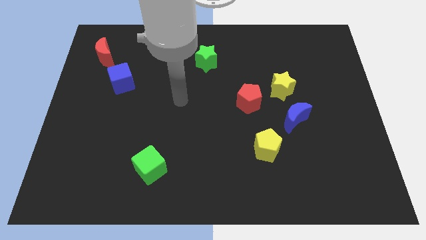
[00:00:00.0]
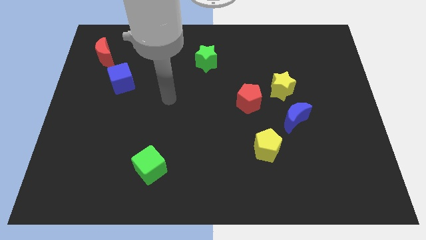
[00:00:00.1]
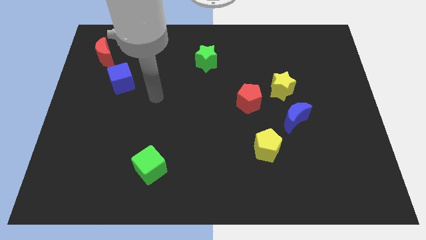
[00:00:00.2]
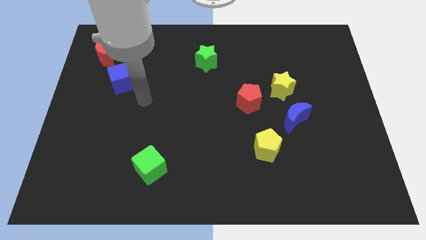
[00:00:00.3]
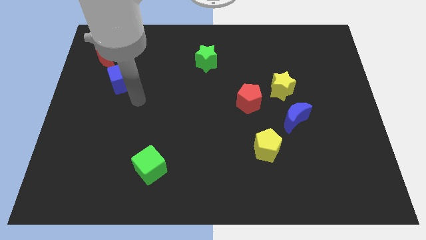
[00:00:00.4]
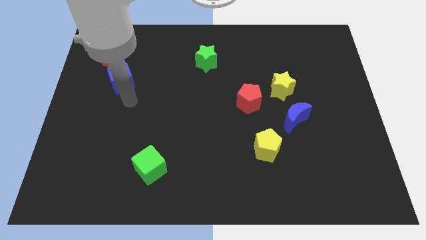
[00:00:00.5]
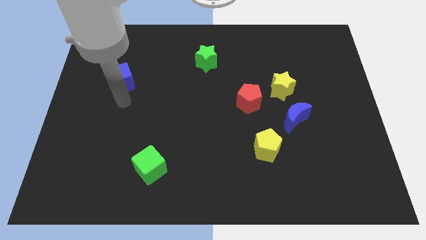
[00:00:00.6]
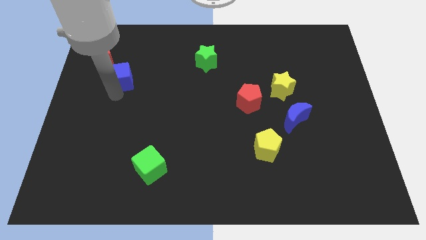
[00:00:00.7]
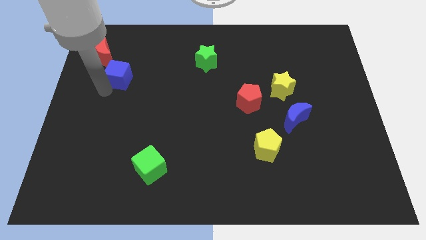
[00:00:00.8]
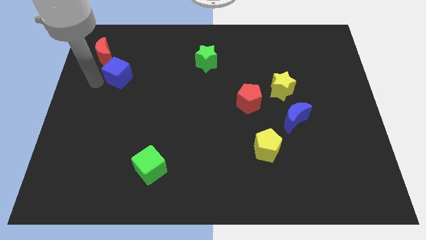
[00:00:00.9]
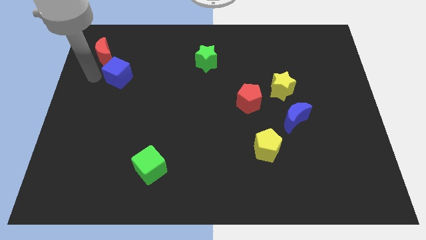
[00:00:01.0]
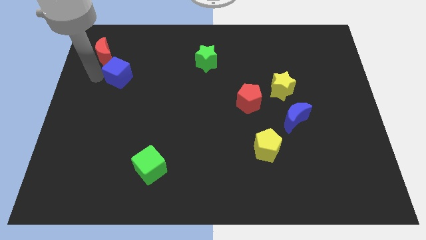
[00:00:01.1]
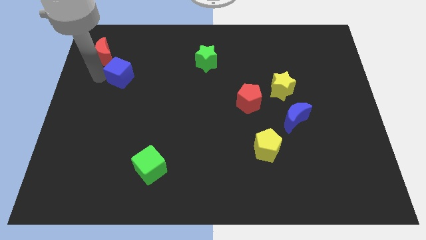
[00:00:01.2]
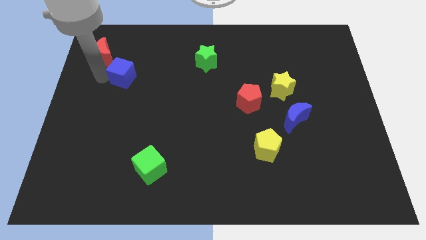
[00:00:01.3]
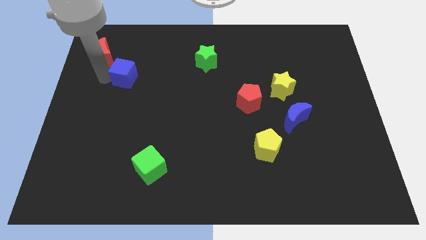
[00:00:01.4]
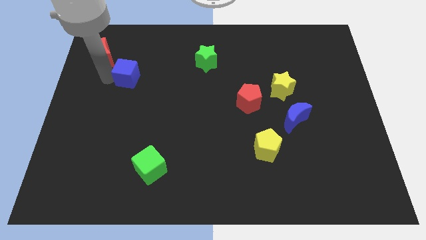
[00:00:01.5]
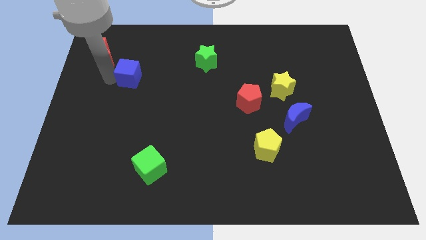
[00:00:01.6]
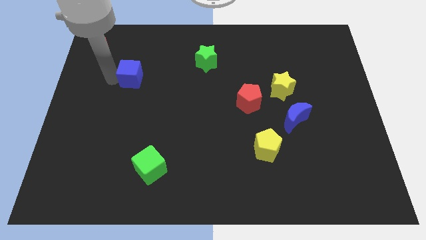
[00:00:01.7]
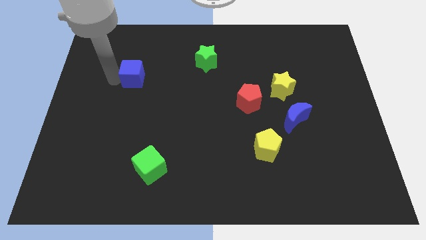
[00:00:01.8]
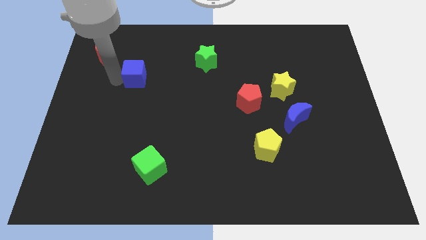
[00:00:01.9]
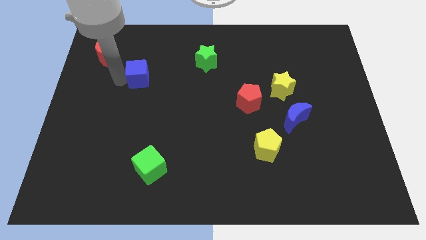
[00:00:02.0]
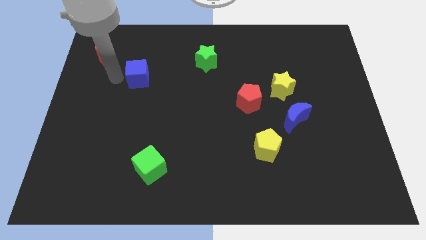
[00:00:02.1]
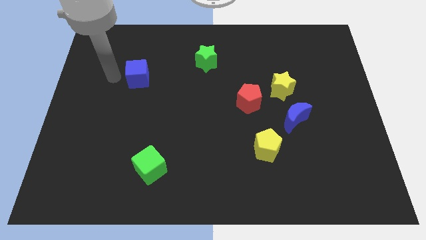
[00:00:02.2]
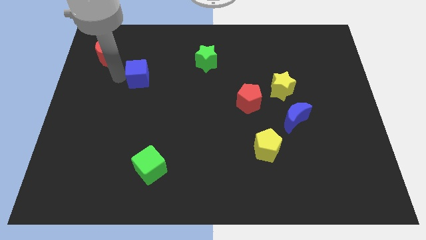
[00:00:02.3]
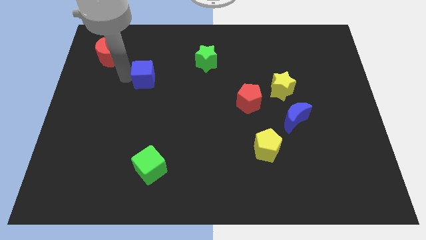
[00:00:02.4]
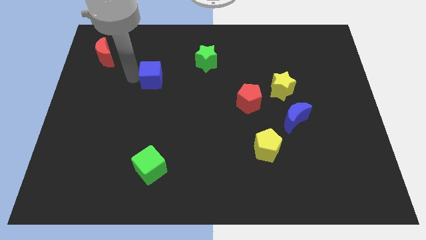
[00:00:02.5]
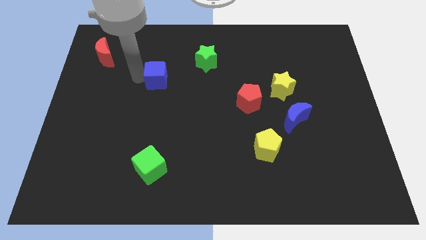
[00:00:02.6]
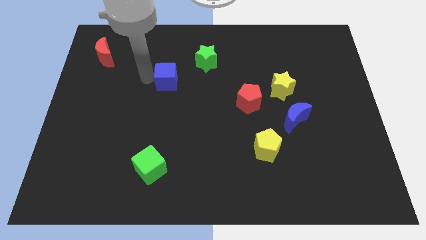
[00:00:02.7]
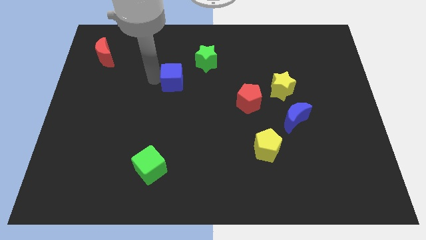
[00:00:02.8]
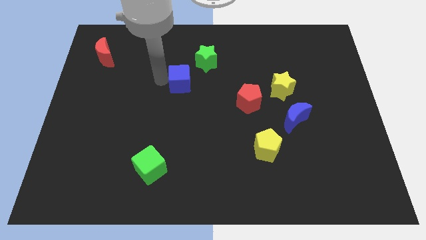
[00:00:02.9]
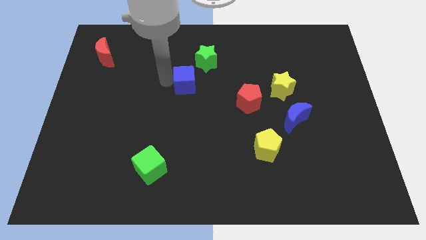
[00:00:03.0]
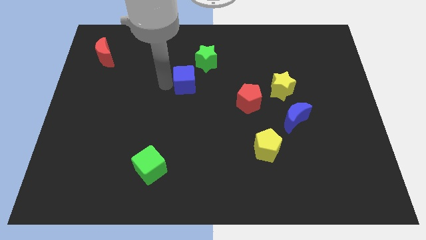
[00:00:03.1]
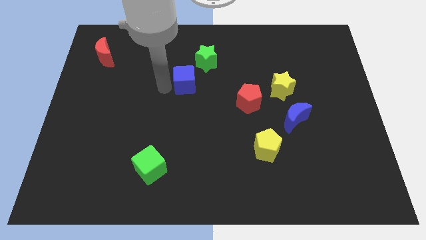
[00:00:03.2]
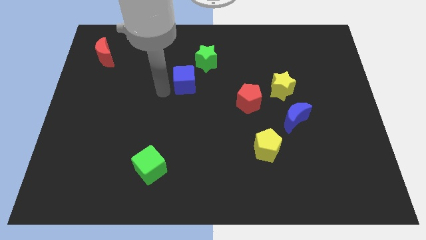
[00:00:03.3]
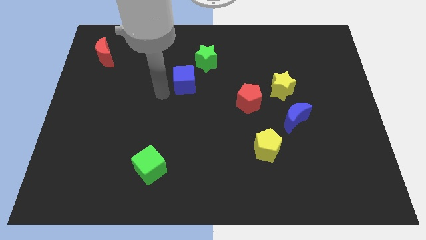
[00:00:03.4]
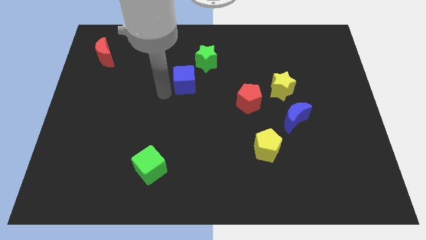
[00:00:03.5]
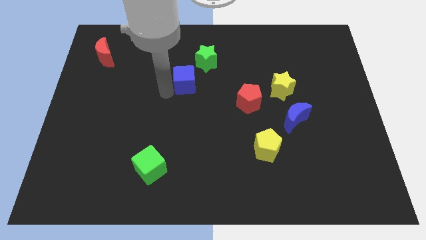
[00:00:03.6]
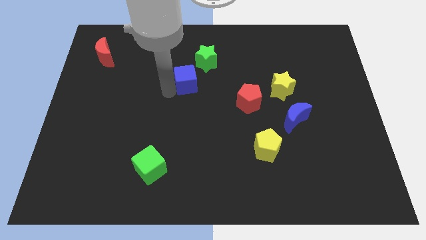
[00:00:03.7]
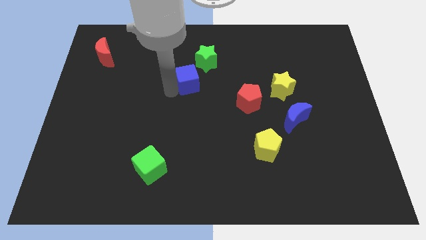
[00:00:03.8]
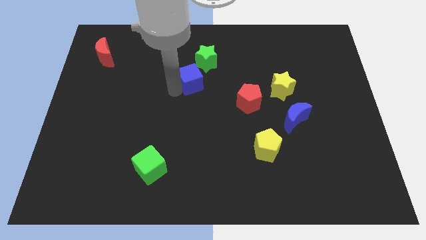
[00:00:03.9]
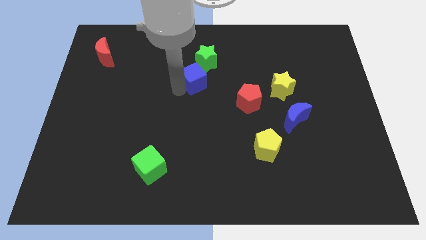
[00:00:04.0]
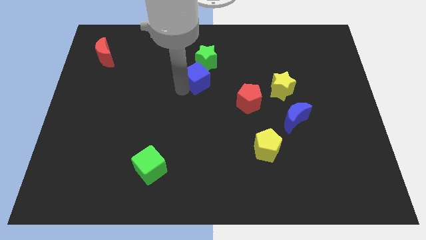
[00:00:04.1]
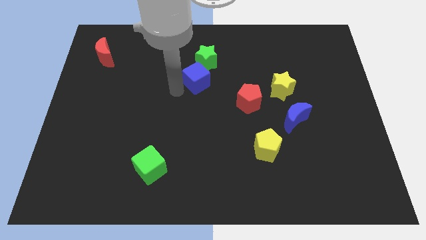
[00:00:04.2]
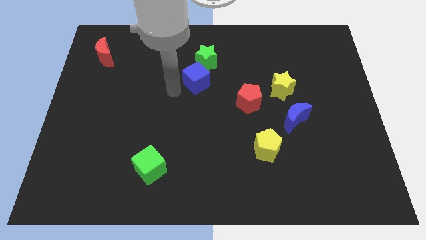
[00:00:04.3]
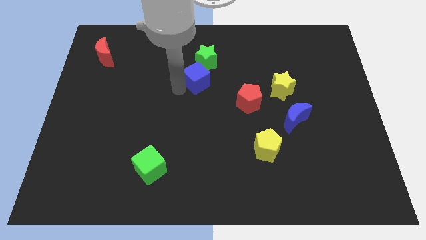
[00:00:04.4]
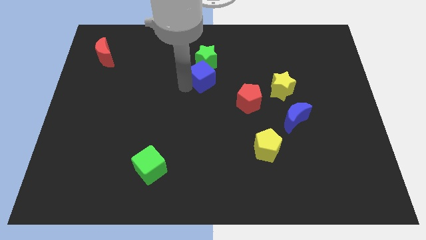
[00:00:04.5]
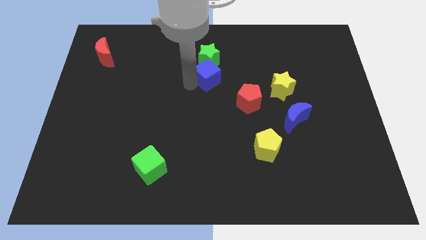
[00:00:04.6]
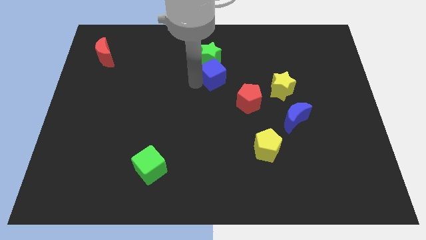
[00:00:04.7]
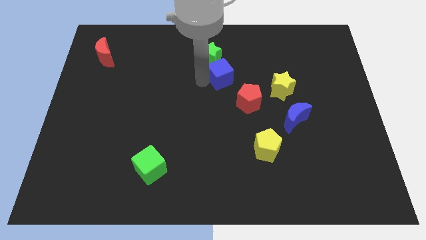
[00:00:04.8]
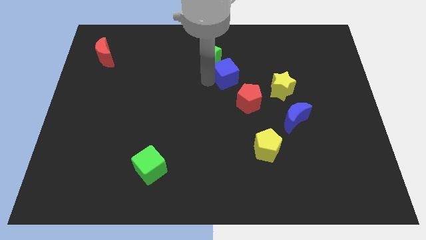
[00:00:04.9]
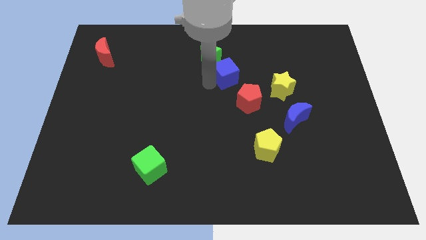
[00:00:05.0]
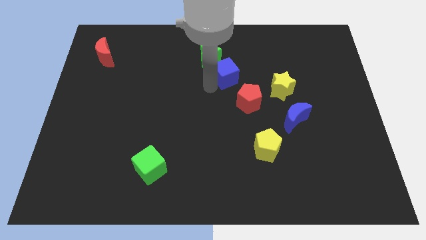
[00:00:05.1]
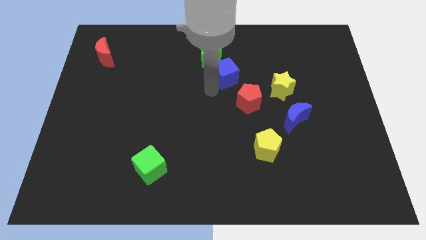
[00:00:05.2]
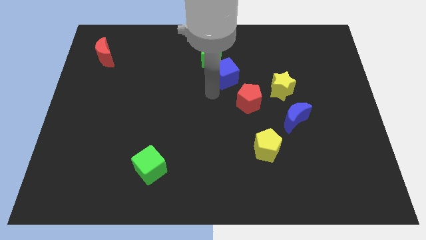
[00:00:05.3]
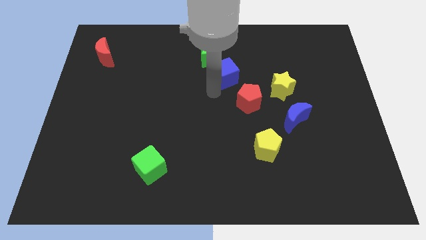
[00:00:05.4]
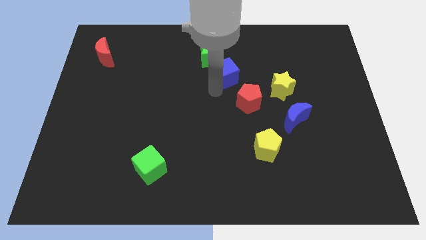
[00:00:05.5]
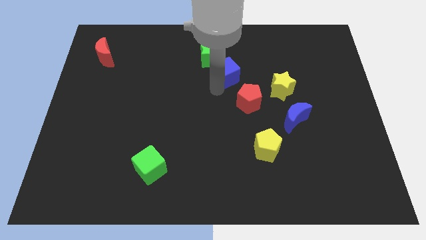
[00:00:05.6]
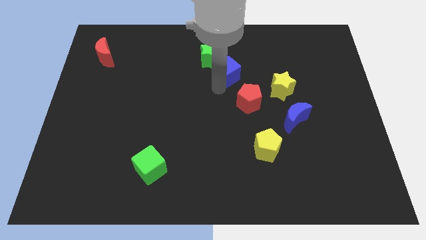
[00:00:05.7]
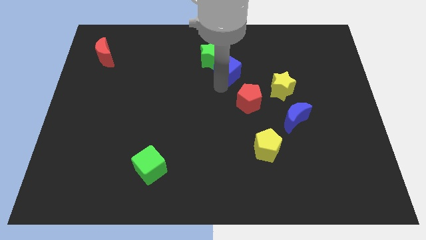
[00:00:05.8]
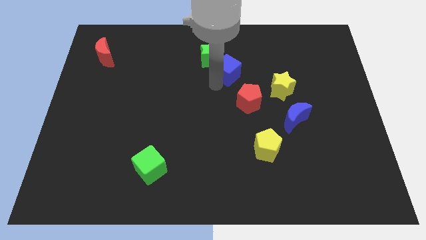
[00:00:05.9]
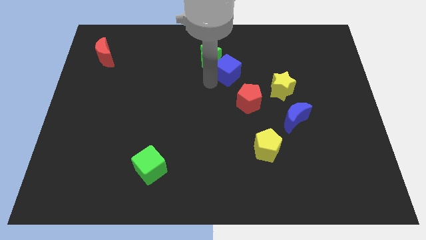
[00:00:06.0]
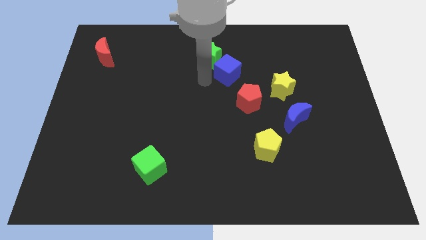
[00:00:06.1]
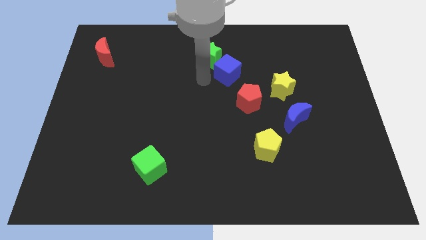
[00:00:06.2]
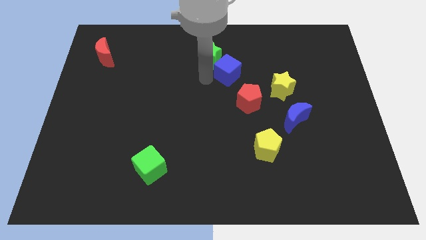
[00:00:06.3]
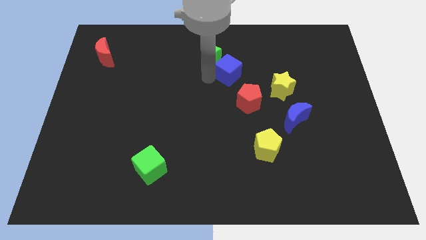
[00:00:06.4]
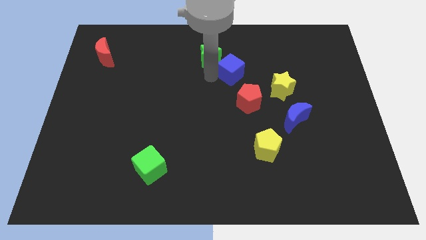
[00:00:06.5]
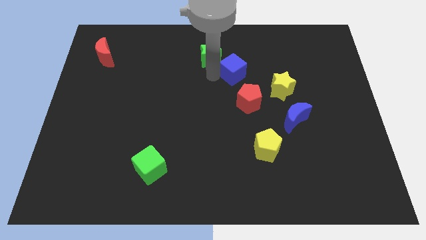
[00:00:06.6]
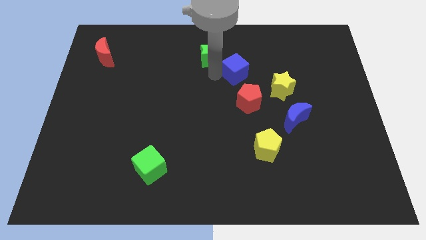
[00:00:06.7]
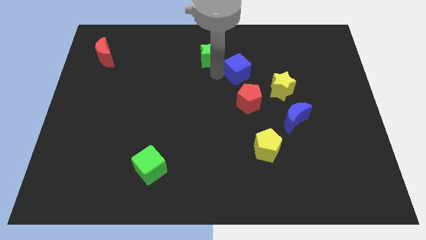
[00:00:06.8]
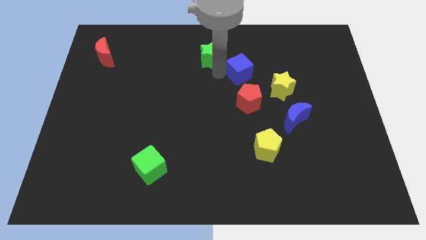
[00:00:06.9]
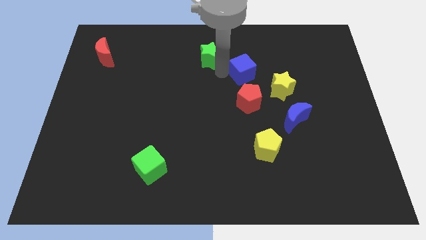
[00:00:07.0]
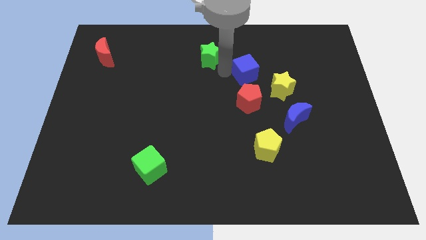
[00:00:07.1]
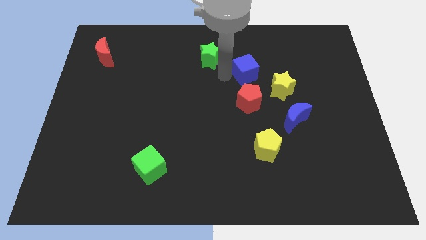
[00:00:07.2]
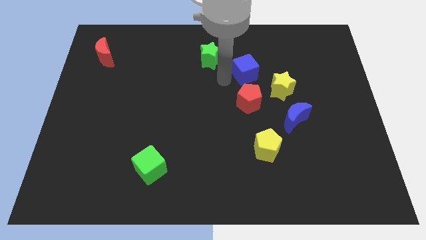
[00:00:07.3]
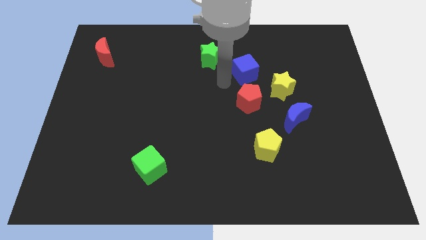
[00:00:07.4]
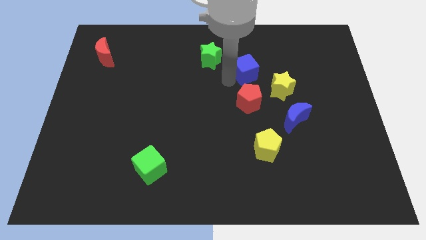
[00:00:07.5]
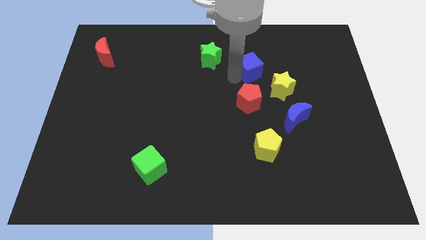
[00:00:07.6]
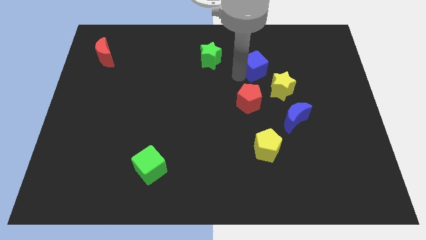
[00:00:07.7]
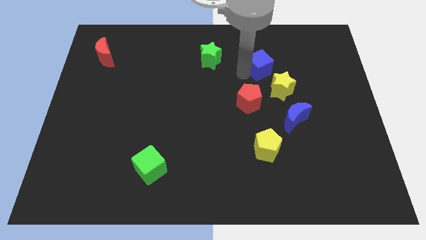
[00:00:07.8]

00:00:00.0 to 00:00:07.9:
slide the blue cube above the yellow star
